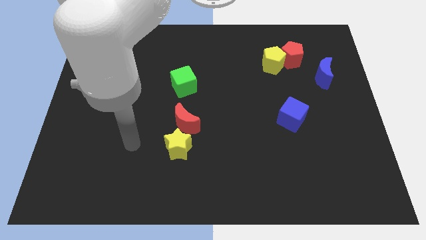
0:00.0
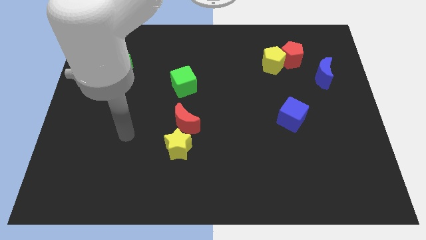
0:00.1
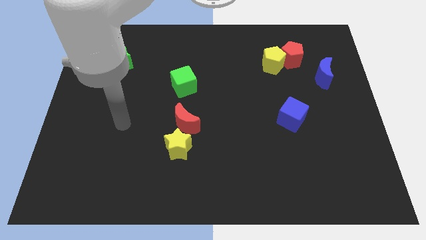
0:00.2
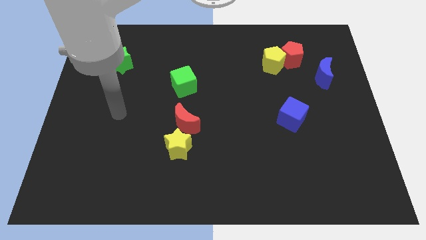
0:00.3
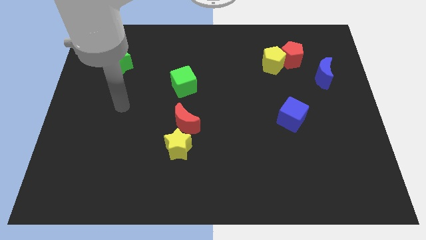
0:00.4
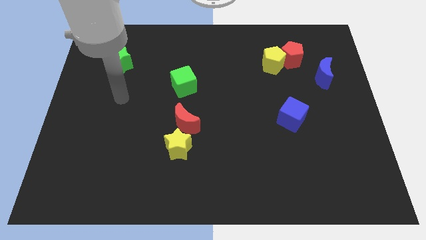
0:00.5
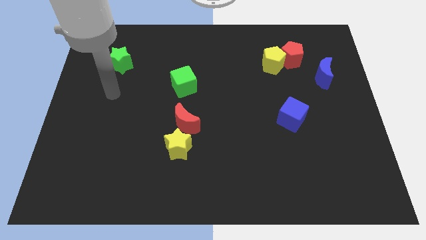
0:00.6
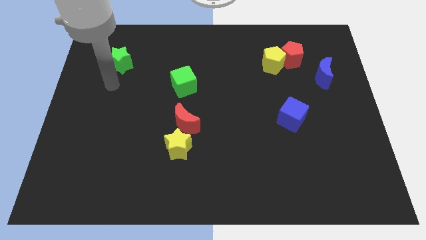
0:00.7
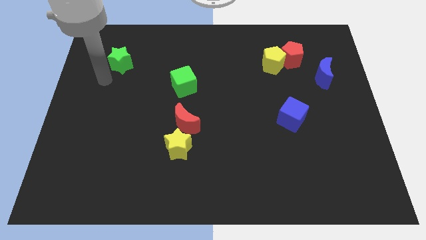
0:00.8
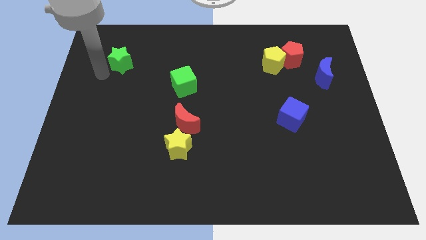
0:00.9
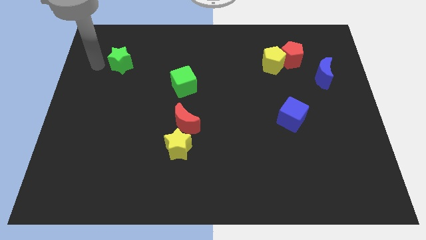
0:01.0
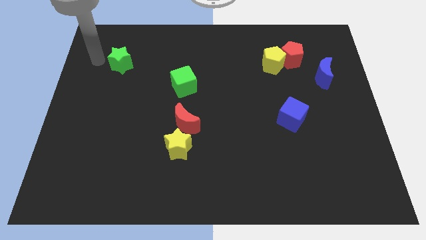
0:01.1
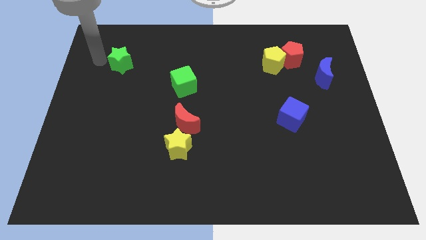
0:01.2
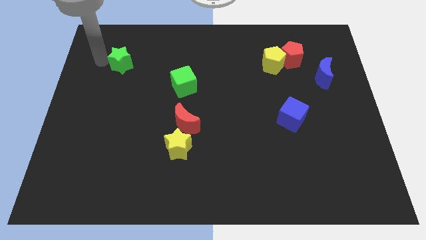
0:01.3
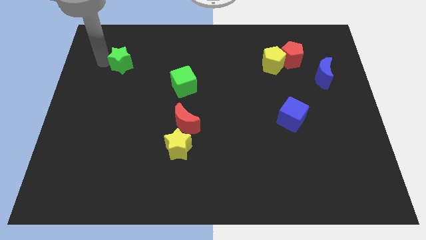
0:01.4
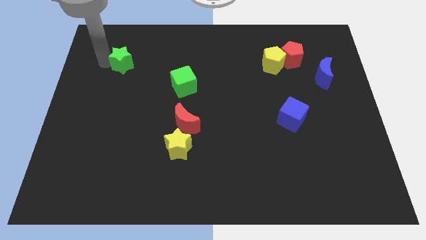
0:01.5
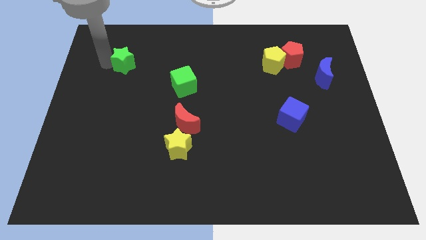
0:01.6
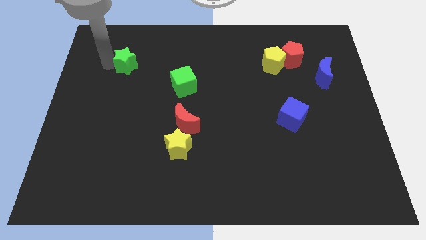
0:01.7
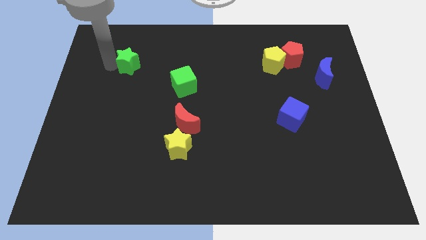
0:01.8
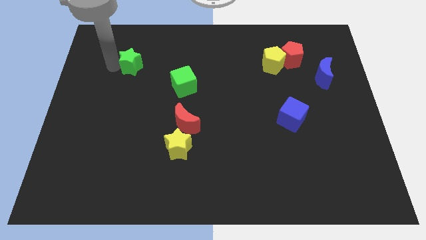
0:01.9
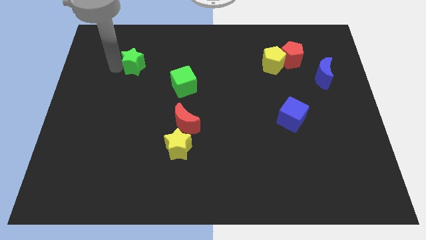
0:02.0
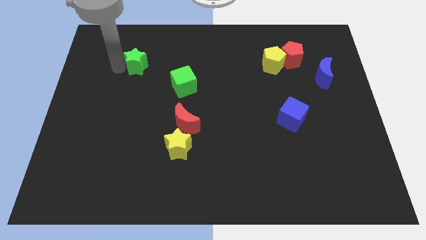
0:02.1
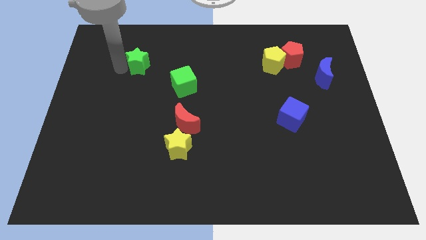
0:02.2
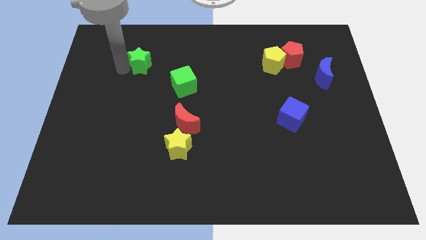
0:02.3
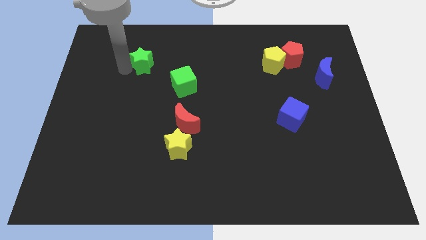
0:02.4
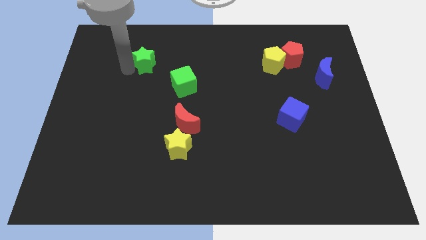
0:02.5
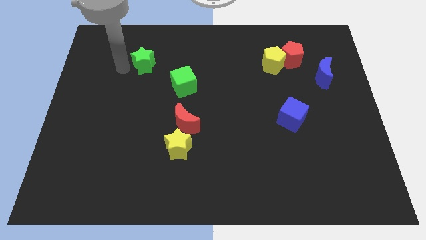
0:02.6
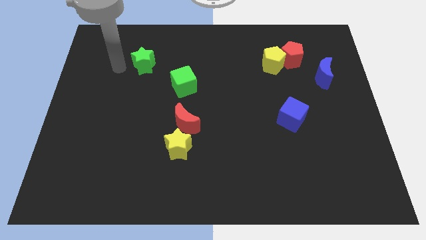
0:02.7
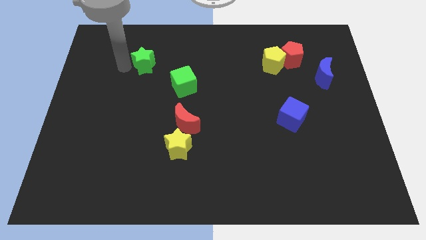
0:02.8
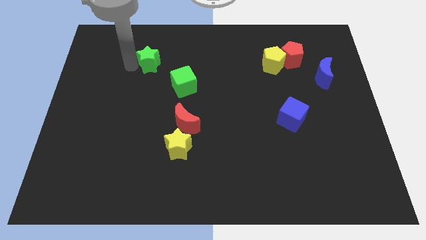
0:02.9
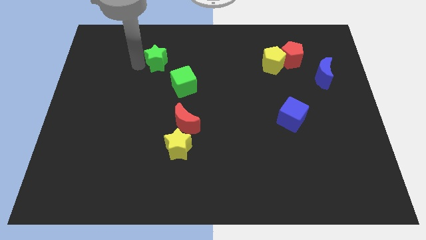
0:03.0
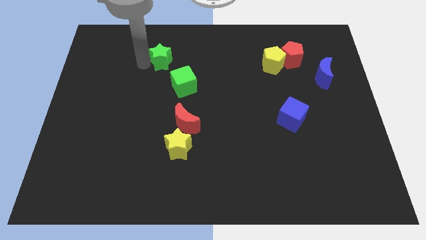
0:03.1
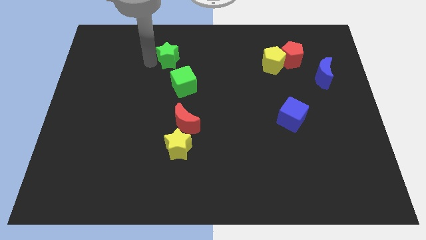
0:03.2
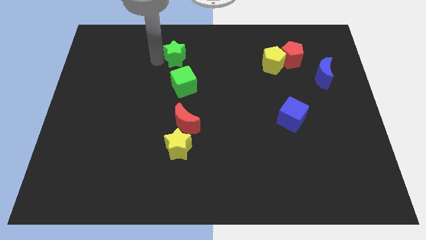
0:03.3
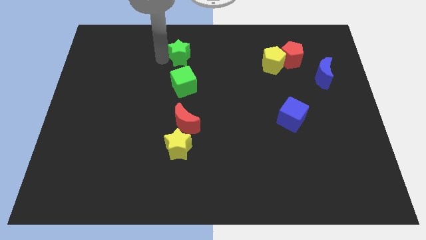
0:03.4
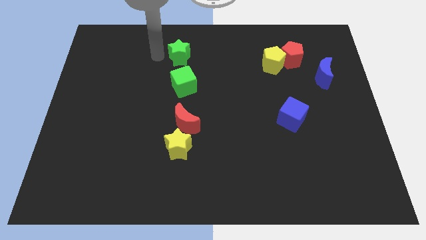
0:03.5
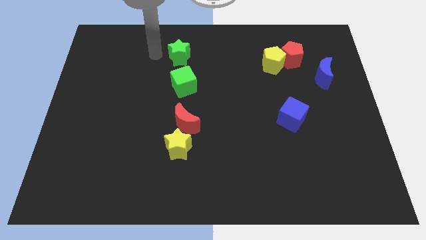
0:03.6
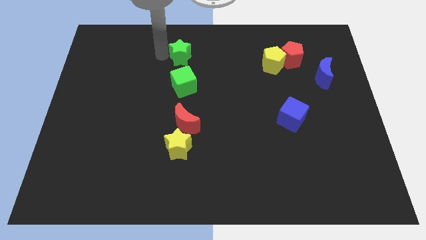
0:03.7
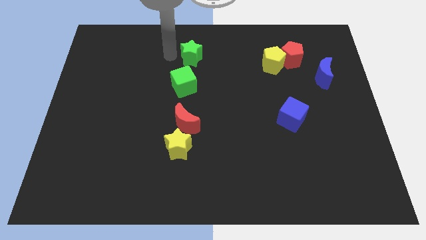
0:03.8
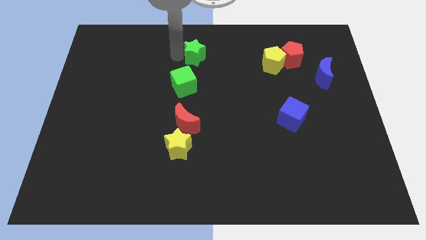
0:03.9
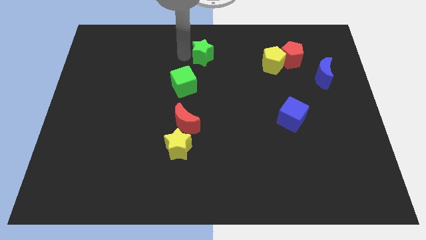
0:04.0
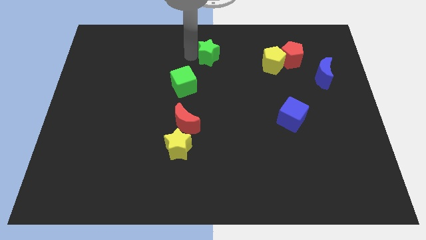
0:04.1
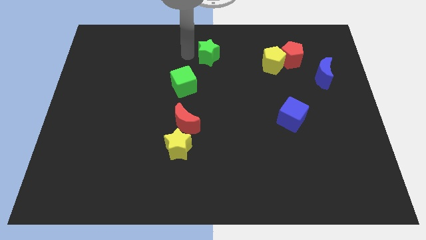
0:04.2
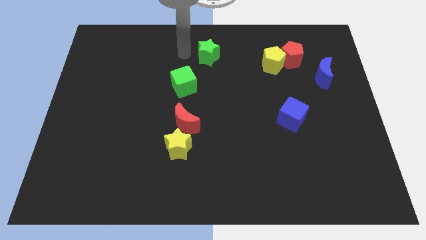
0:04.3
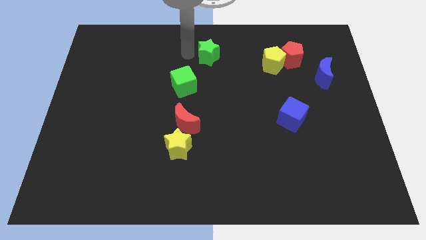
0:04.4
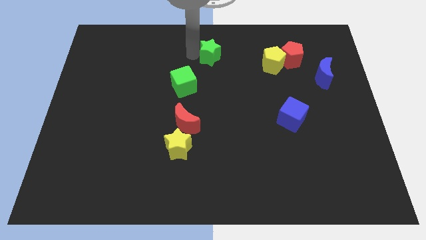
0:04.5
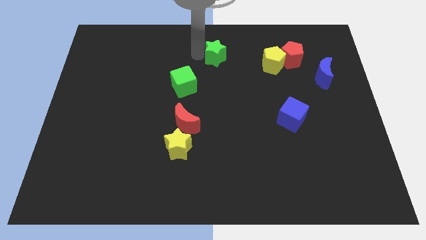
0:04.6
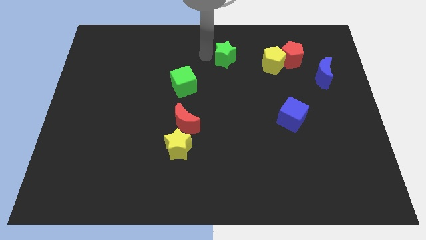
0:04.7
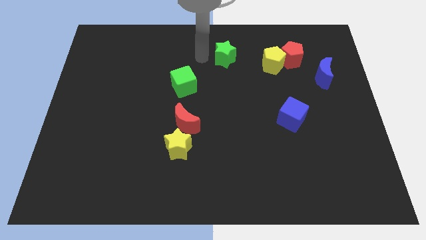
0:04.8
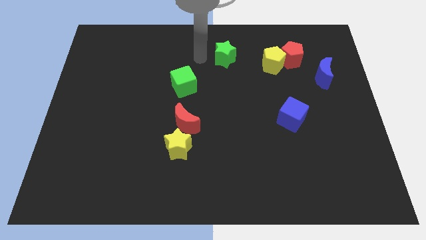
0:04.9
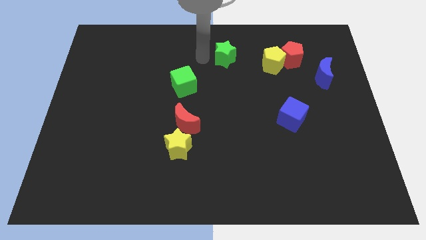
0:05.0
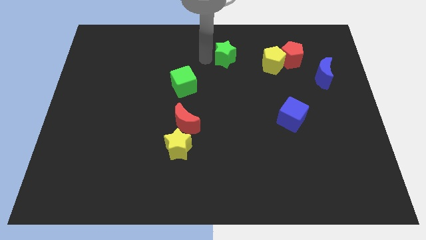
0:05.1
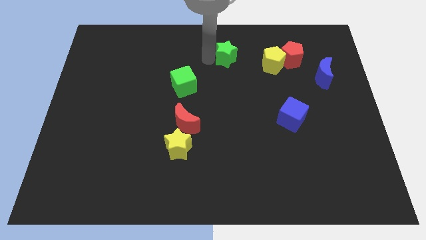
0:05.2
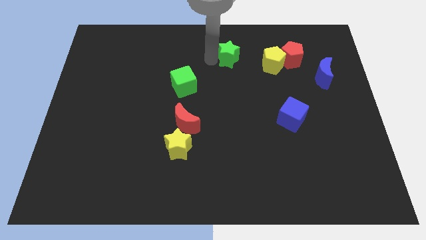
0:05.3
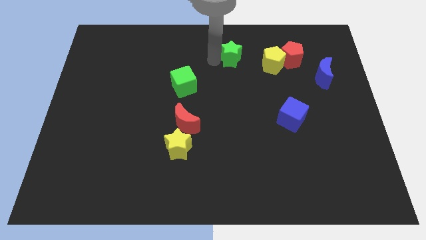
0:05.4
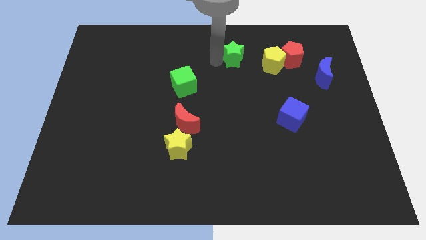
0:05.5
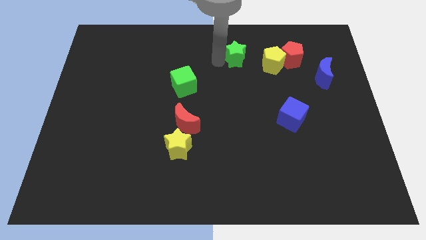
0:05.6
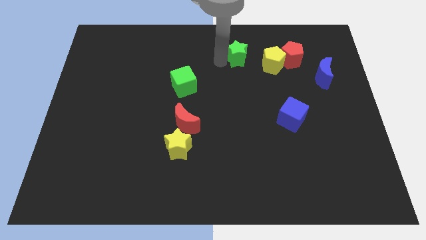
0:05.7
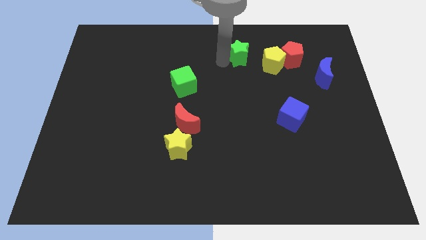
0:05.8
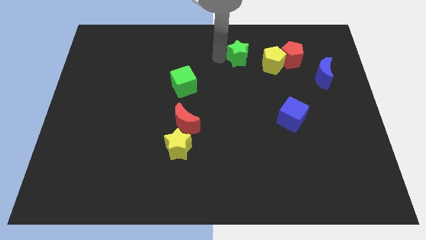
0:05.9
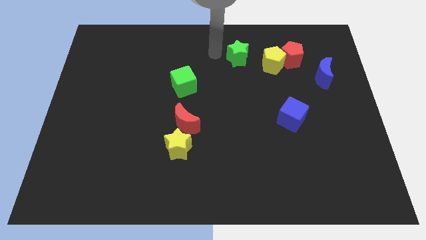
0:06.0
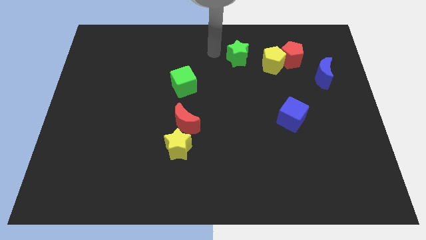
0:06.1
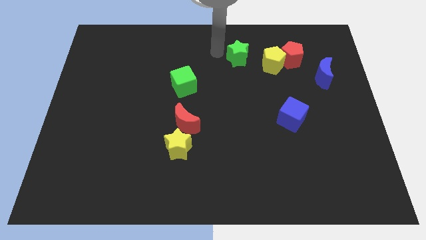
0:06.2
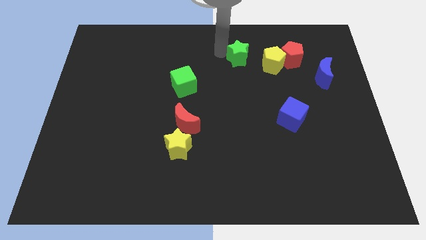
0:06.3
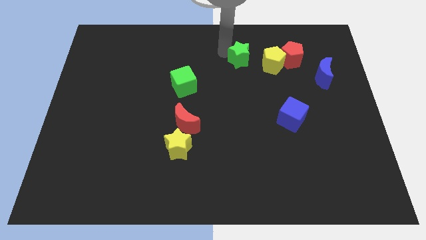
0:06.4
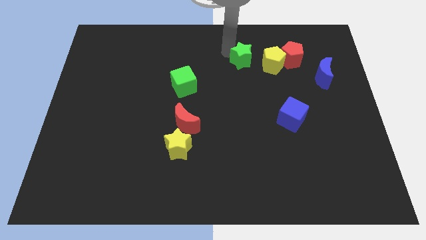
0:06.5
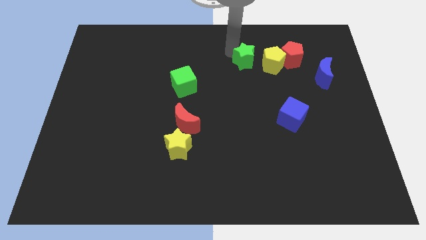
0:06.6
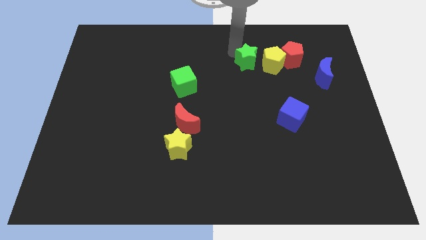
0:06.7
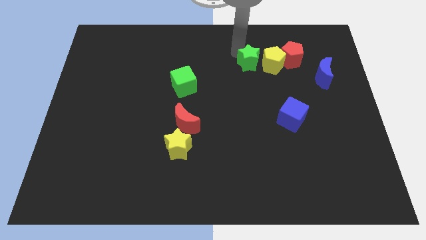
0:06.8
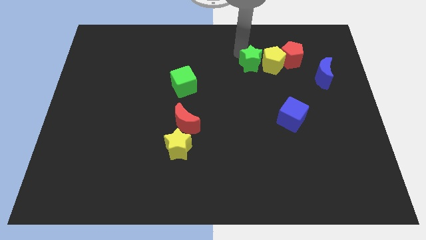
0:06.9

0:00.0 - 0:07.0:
slide the green star to the yellow pentagon
